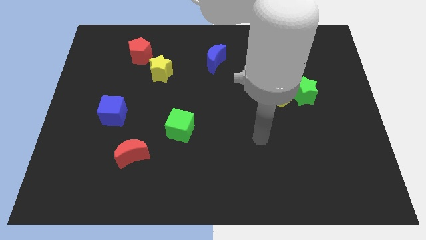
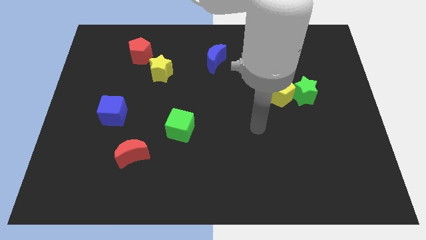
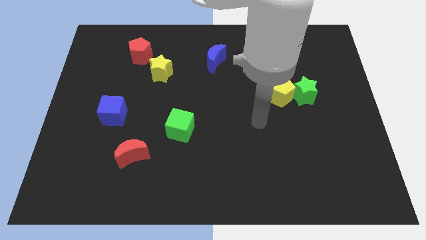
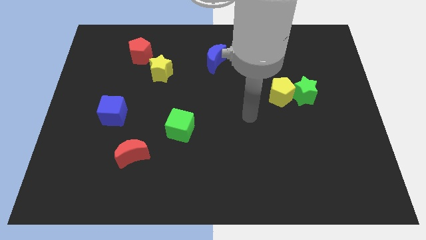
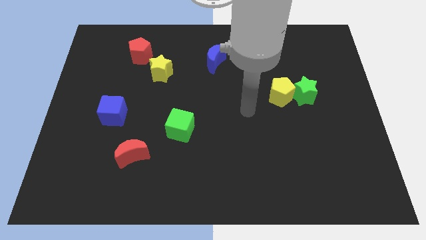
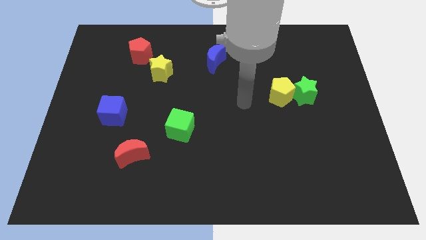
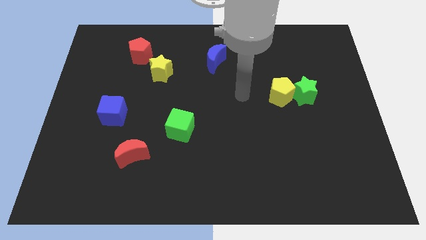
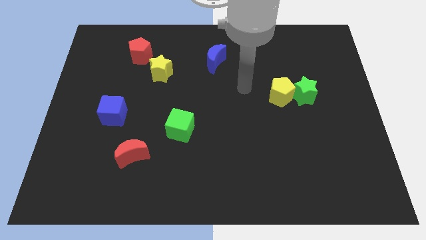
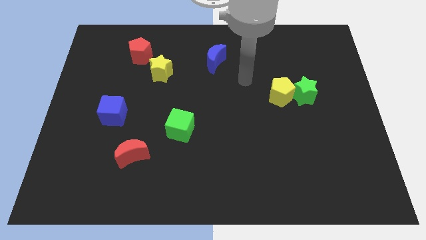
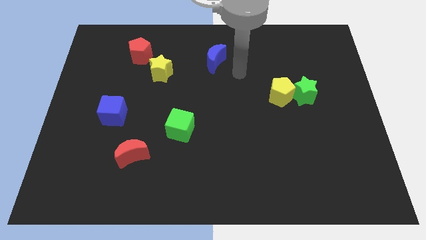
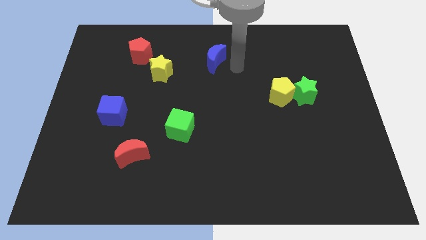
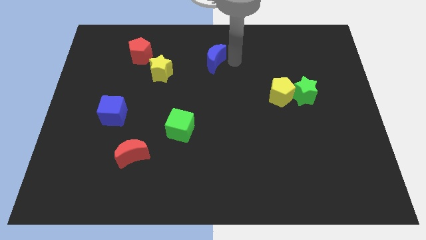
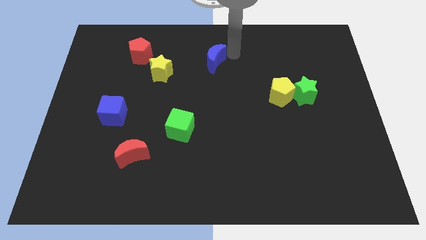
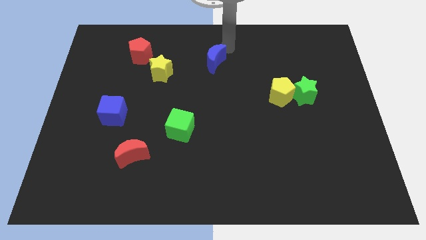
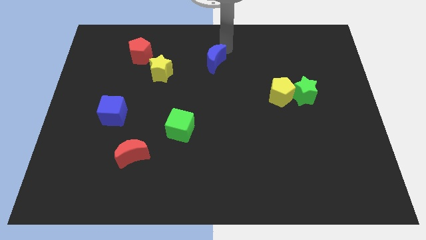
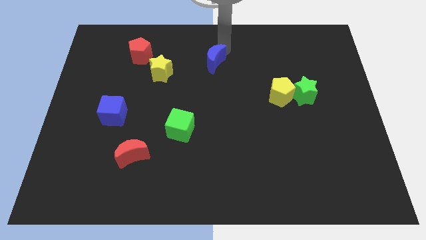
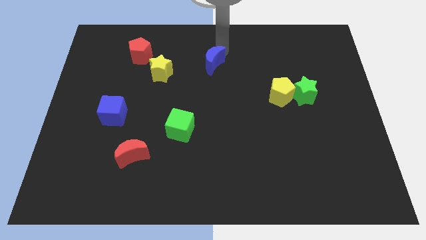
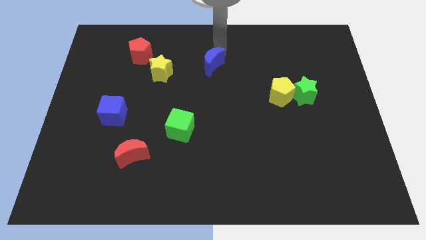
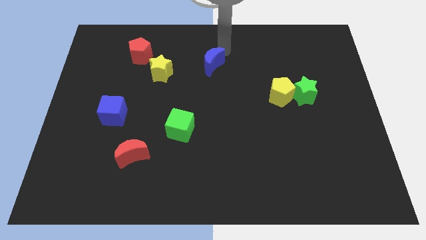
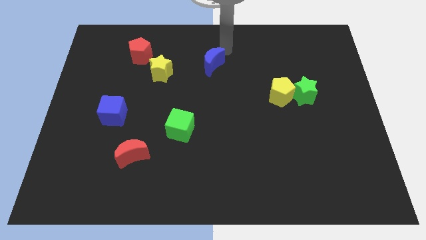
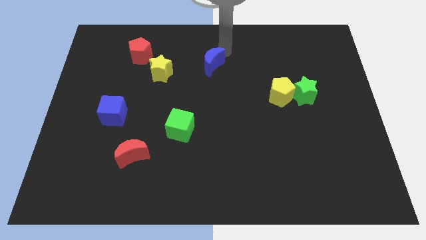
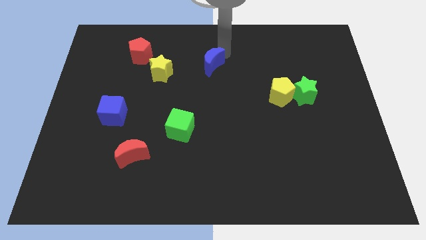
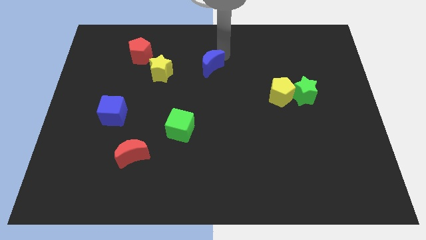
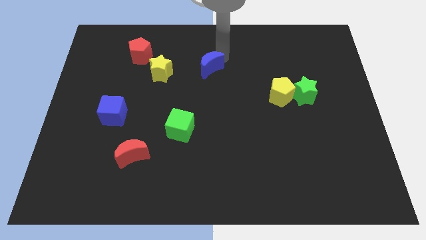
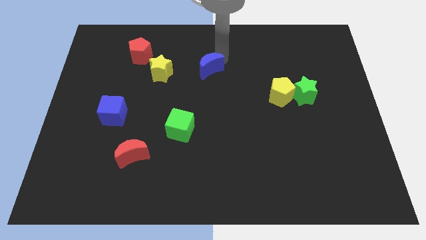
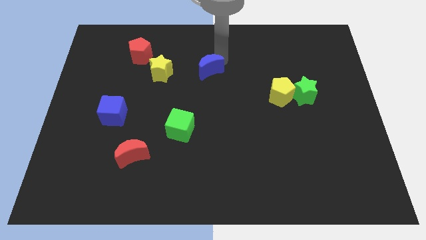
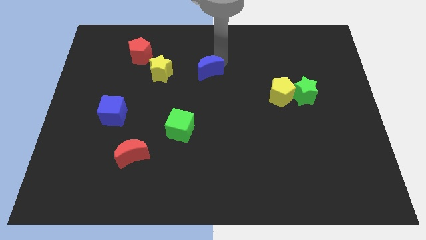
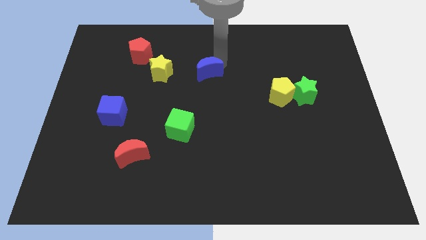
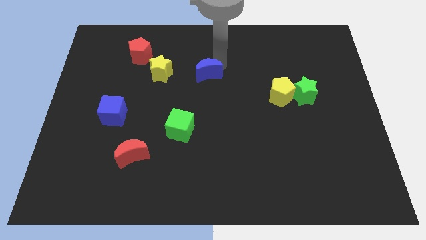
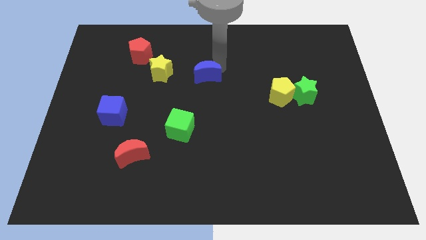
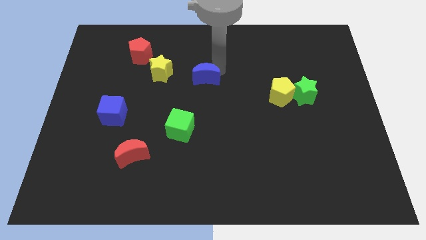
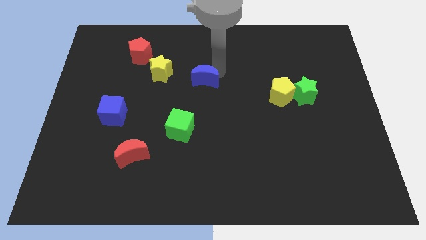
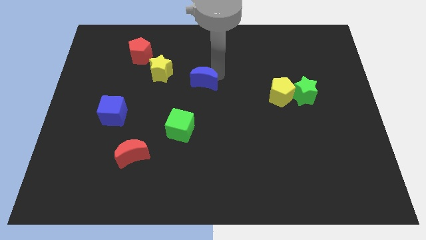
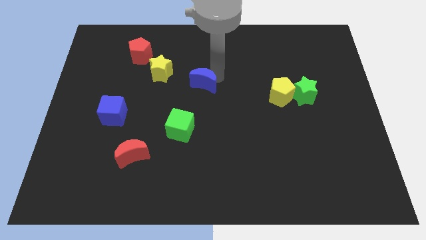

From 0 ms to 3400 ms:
slightly push the blue moon down and left diagonally

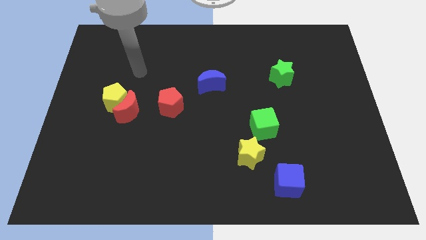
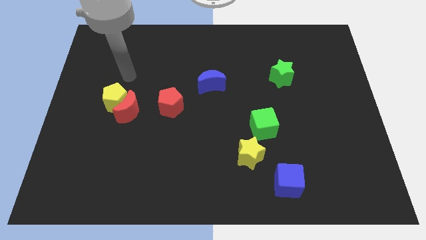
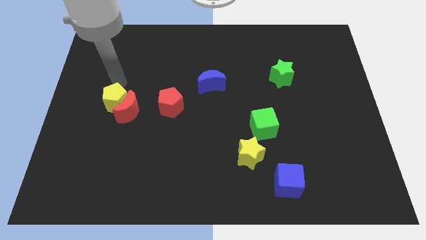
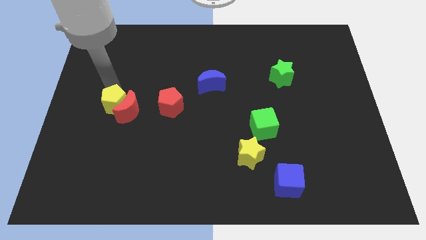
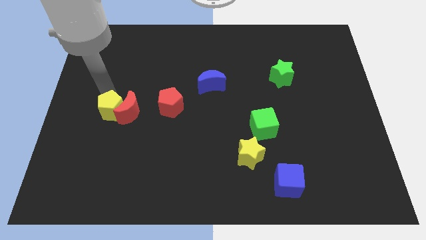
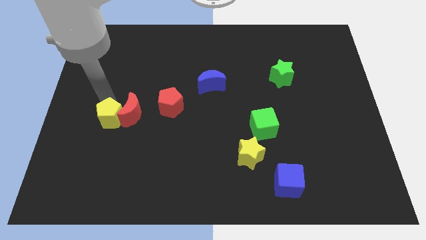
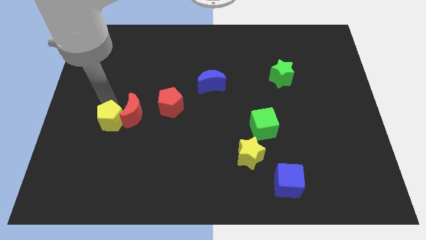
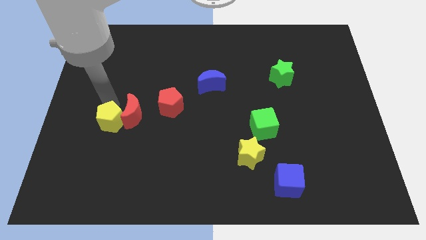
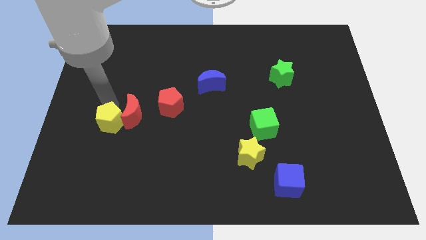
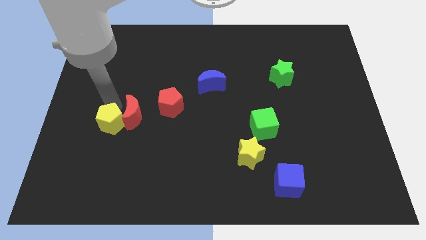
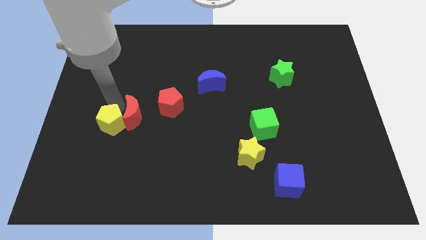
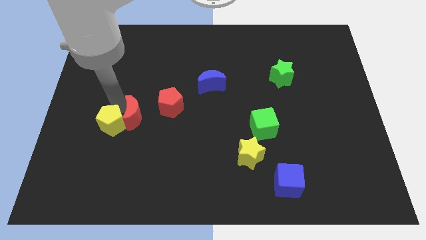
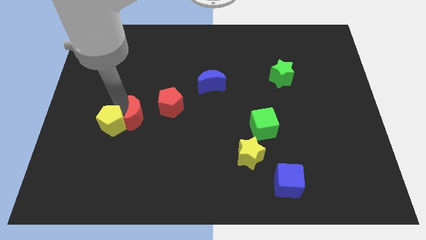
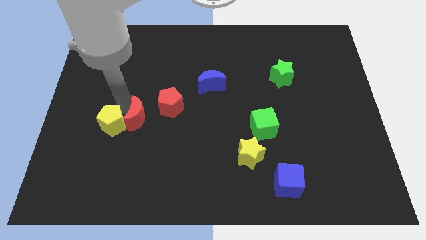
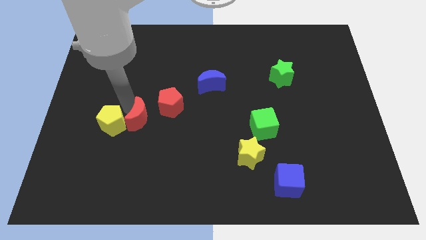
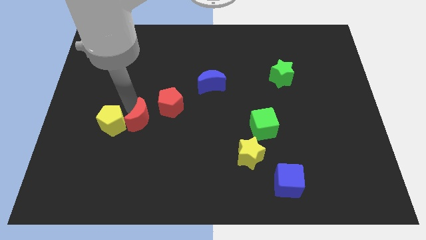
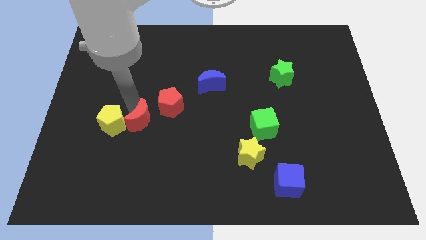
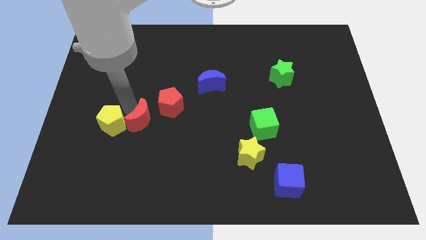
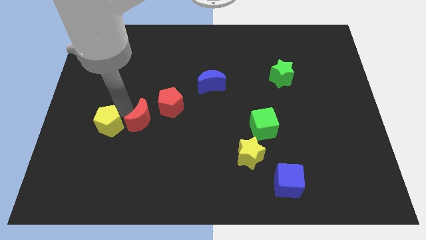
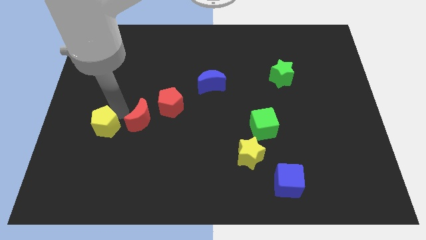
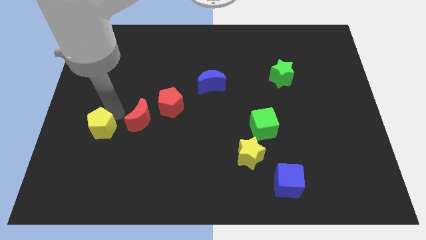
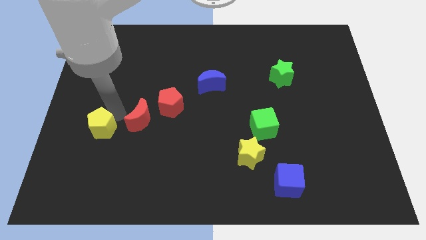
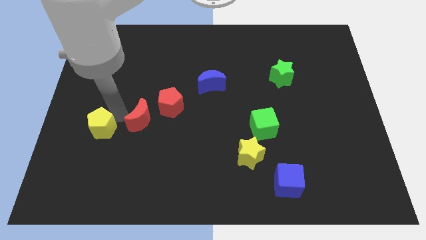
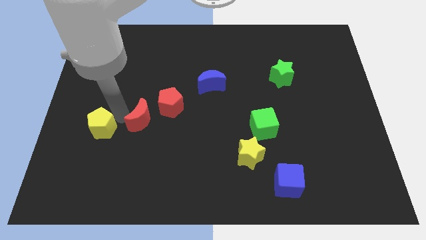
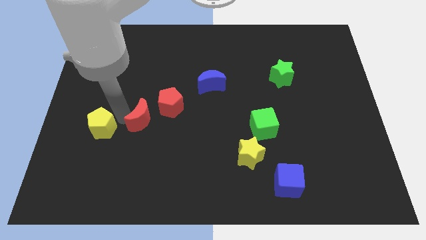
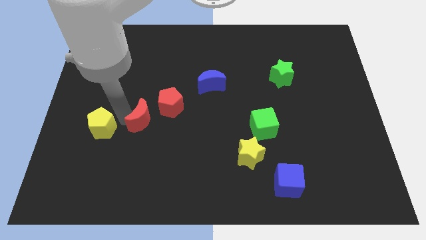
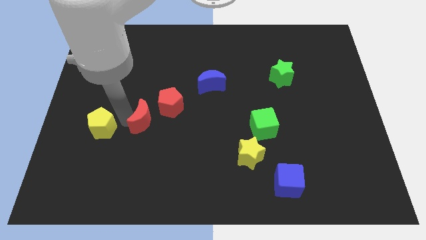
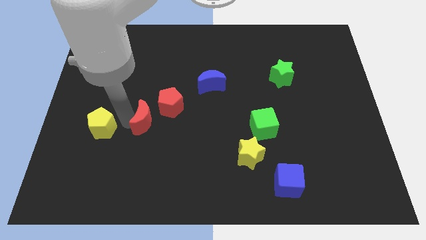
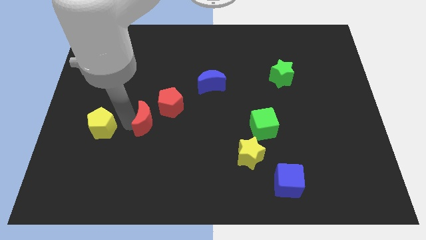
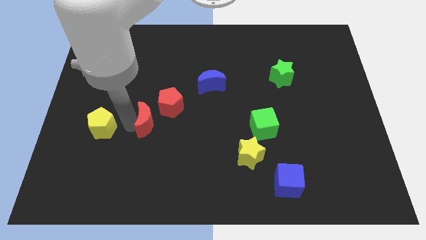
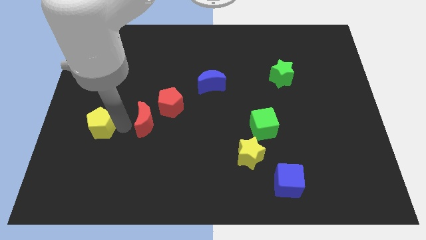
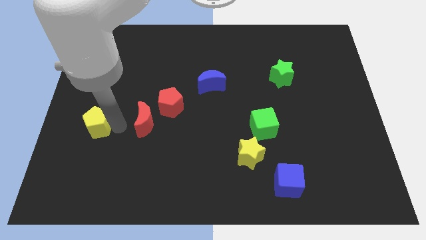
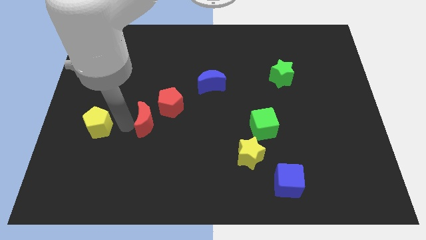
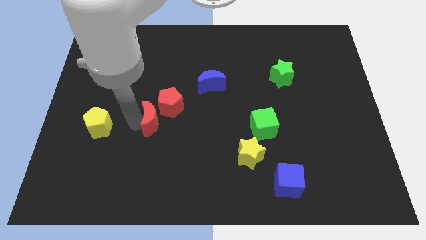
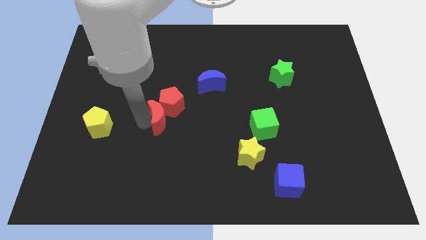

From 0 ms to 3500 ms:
push the red moon slightly to the right

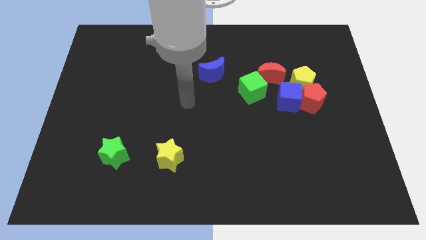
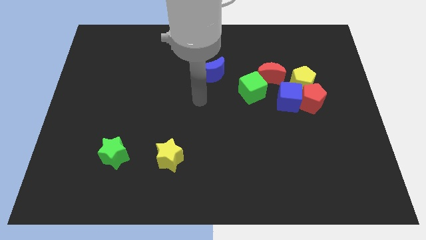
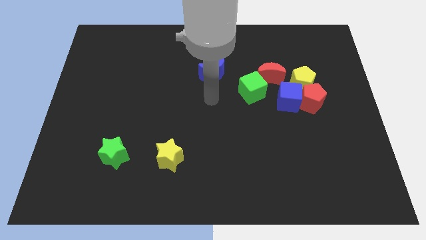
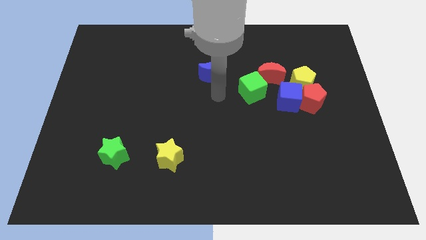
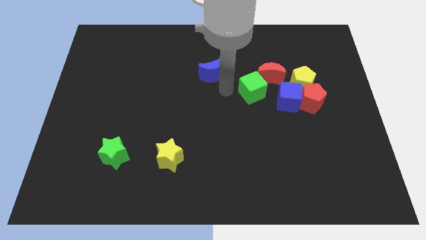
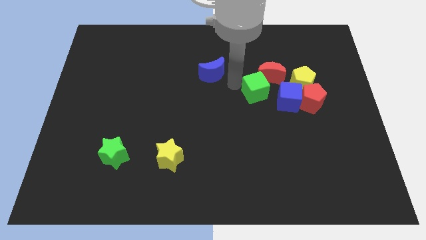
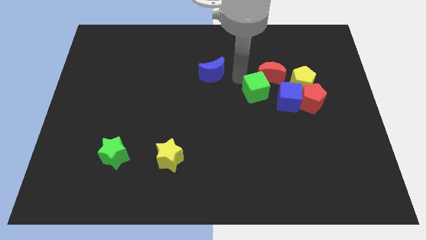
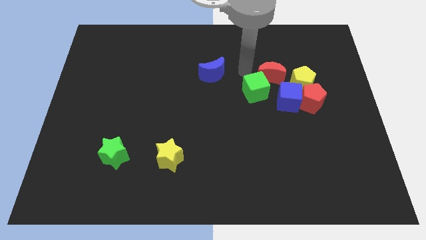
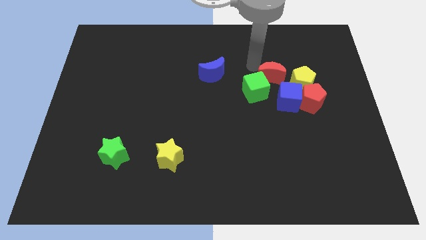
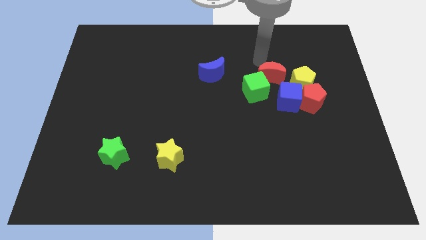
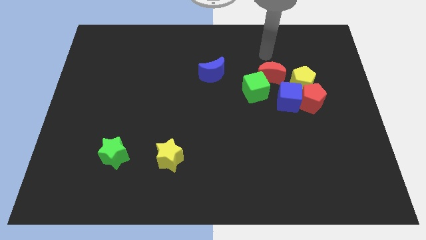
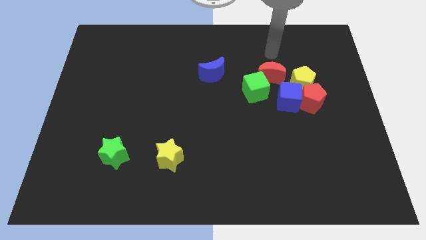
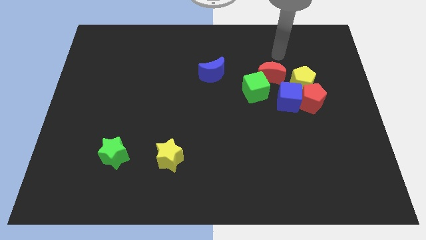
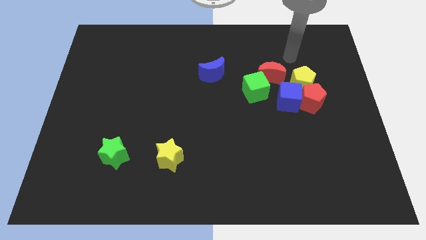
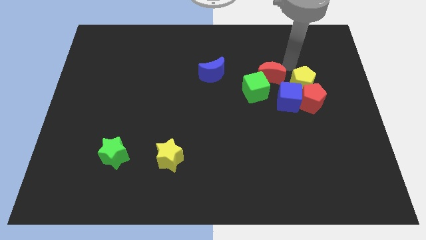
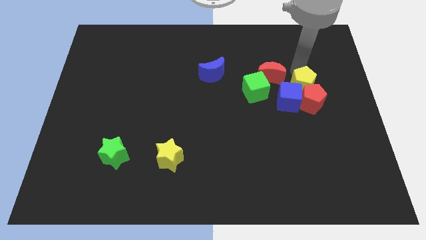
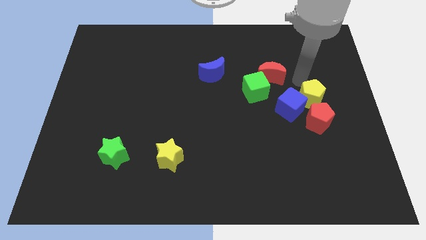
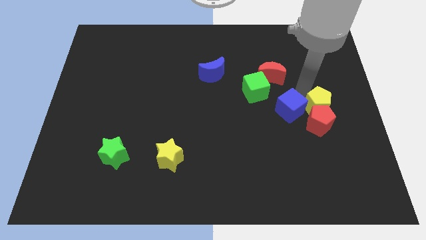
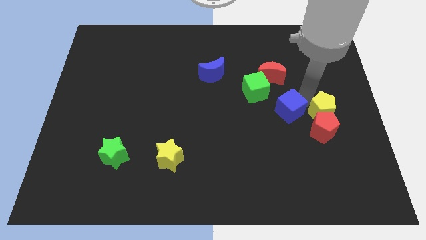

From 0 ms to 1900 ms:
move the red pentagon somewhat downwards
